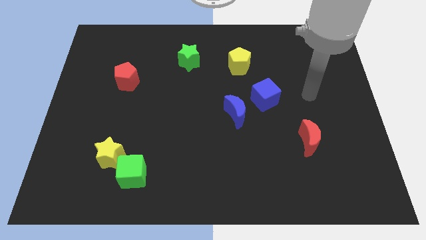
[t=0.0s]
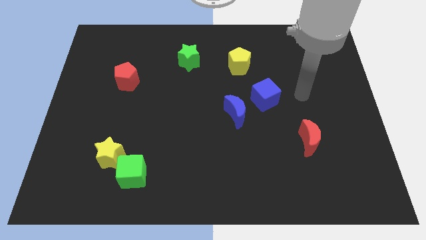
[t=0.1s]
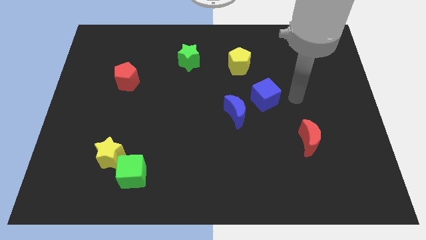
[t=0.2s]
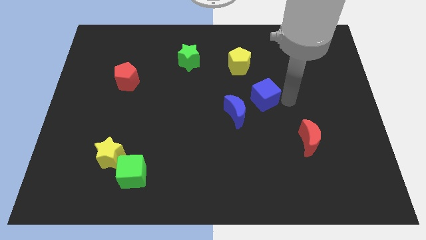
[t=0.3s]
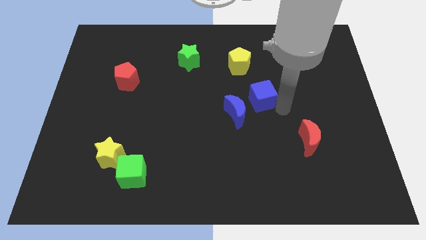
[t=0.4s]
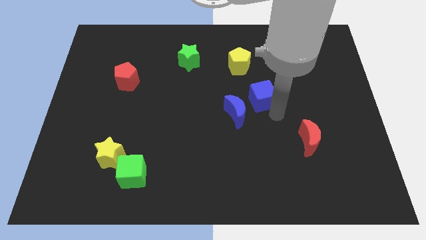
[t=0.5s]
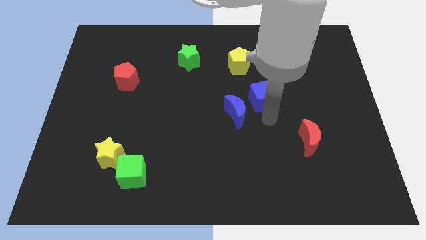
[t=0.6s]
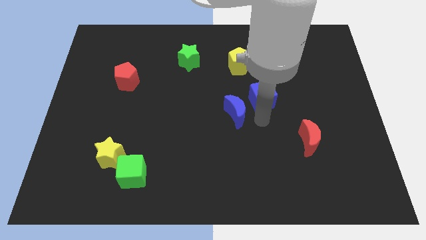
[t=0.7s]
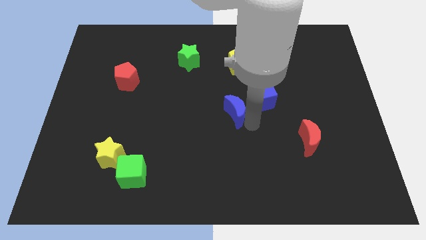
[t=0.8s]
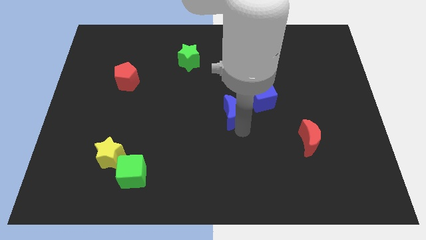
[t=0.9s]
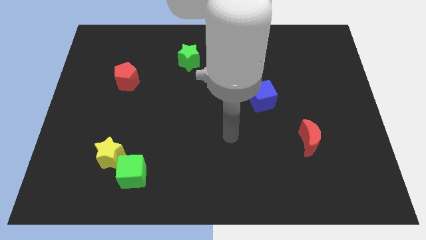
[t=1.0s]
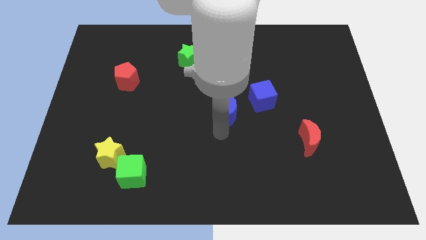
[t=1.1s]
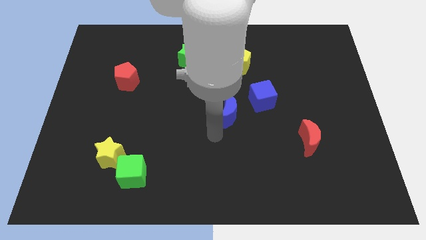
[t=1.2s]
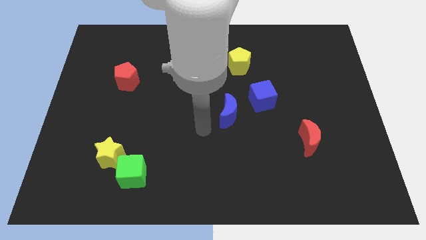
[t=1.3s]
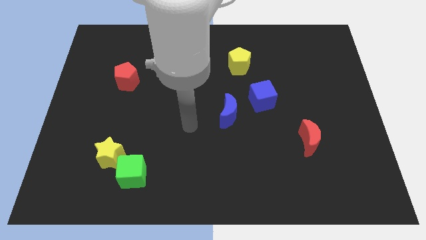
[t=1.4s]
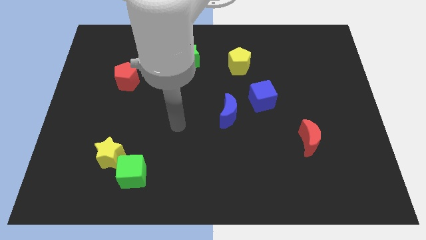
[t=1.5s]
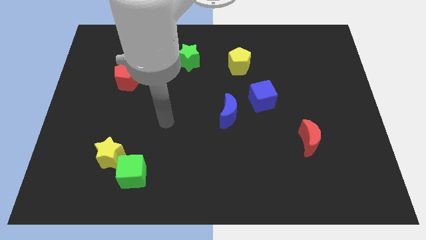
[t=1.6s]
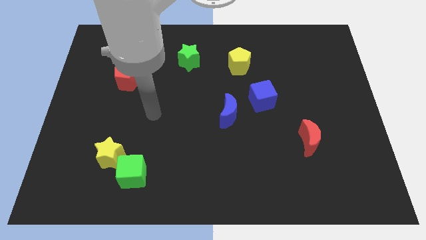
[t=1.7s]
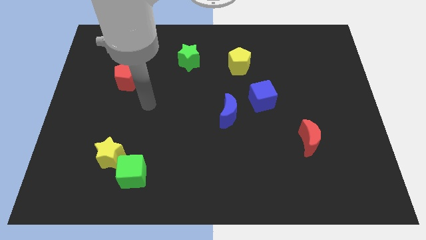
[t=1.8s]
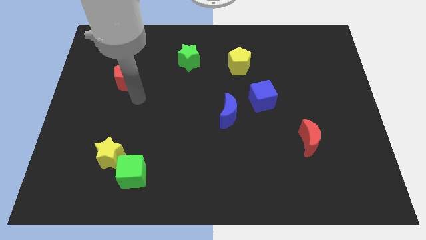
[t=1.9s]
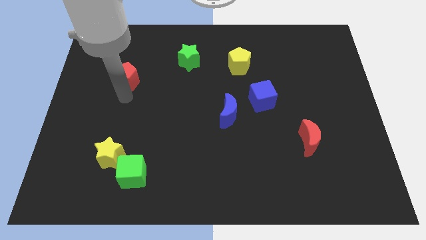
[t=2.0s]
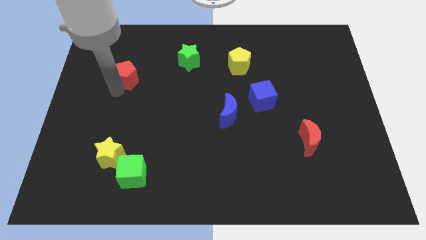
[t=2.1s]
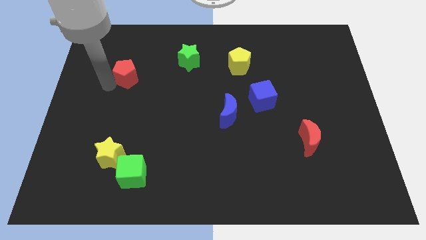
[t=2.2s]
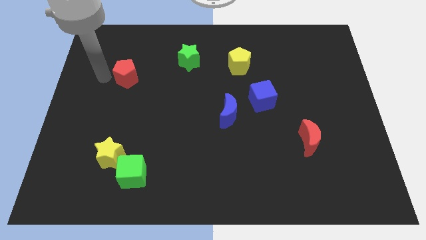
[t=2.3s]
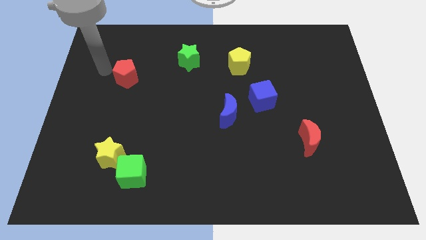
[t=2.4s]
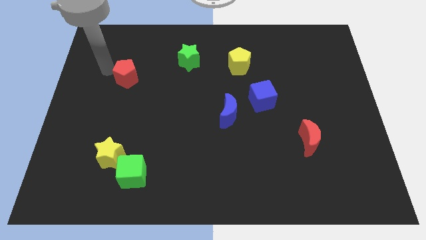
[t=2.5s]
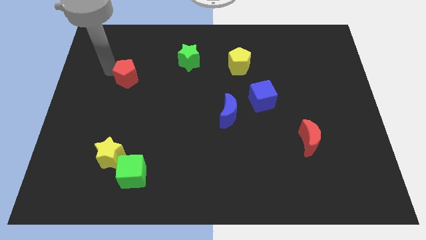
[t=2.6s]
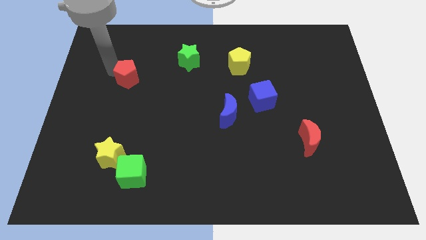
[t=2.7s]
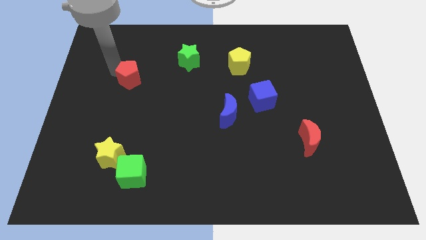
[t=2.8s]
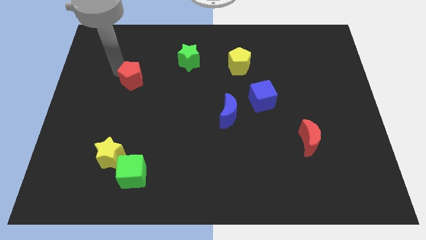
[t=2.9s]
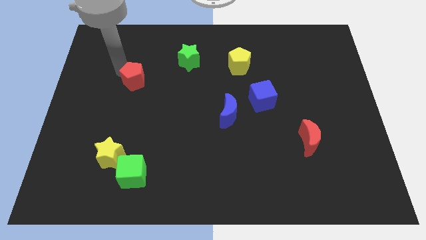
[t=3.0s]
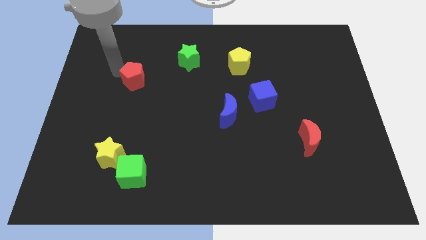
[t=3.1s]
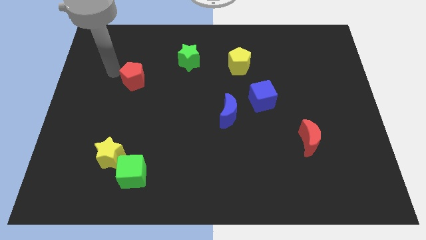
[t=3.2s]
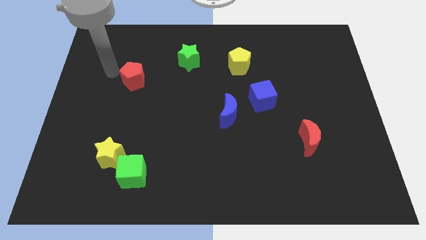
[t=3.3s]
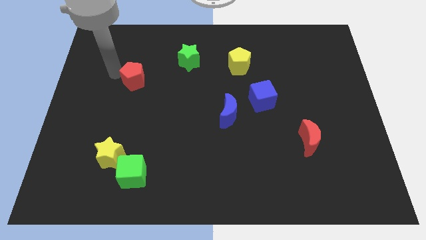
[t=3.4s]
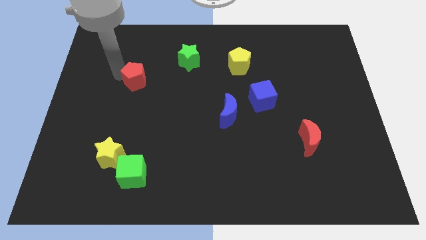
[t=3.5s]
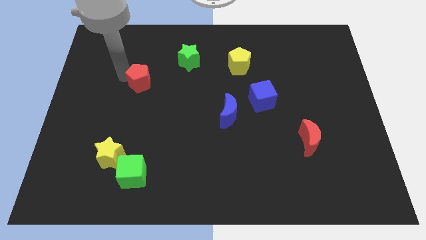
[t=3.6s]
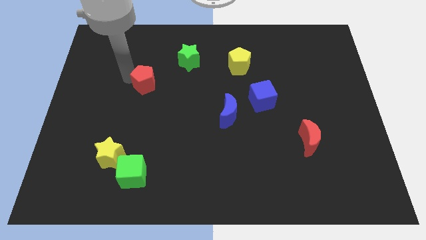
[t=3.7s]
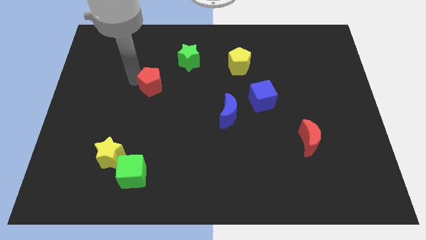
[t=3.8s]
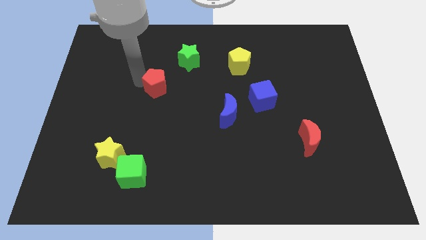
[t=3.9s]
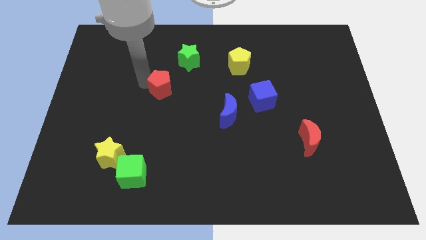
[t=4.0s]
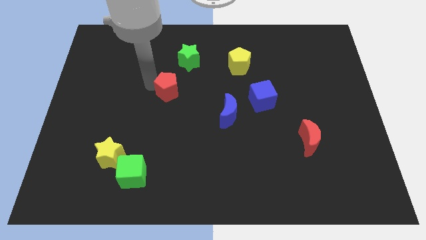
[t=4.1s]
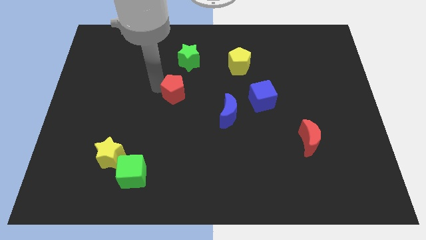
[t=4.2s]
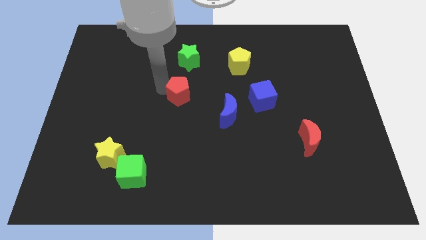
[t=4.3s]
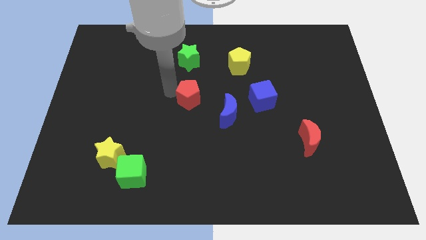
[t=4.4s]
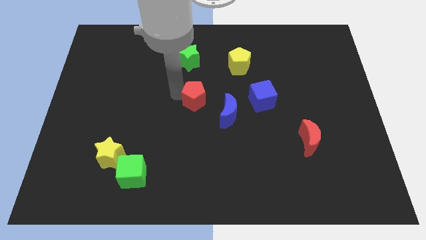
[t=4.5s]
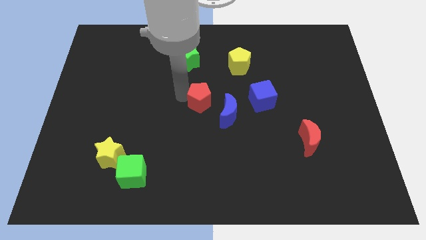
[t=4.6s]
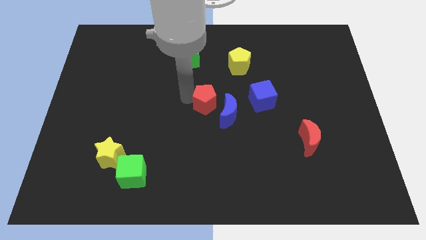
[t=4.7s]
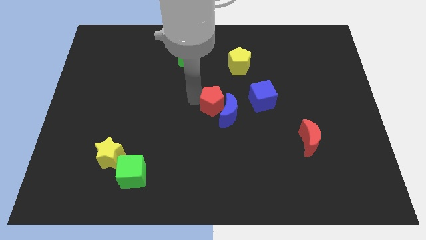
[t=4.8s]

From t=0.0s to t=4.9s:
put the red pentagon next to the blue moon

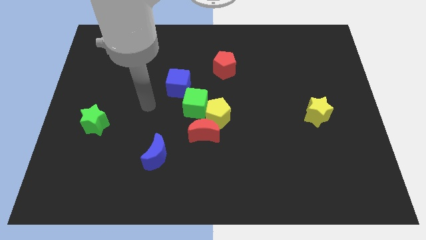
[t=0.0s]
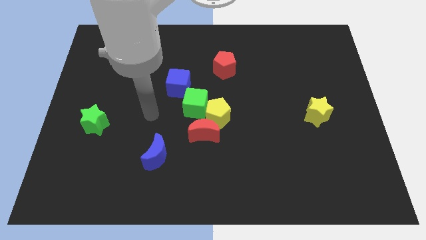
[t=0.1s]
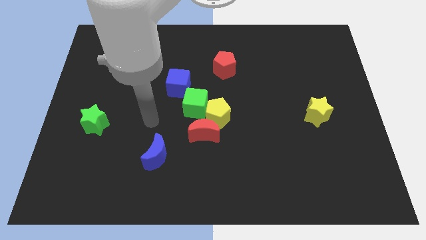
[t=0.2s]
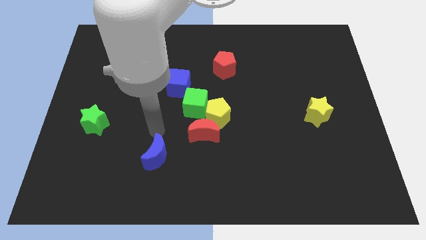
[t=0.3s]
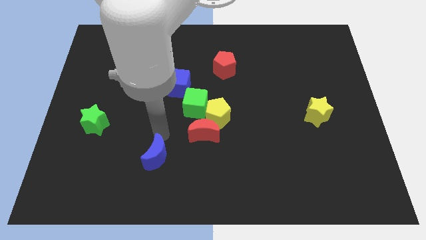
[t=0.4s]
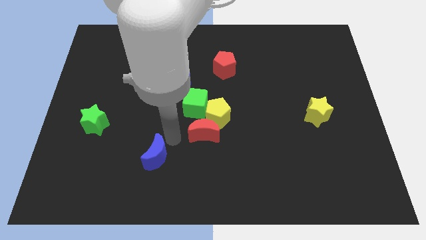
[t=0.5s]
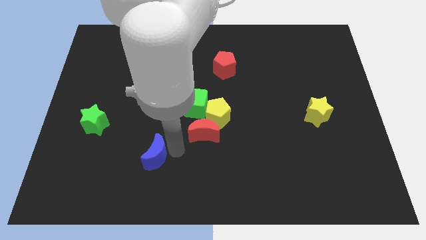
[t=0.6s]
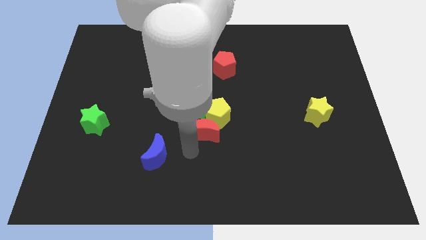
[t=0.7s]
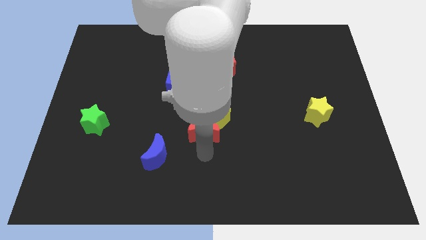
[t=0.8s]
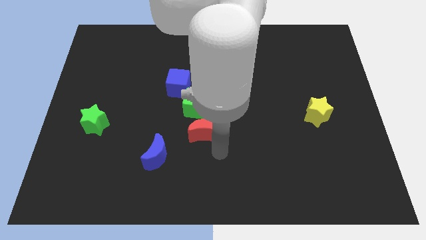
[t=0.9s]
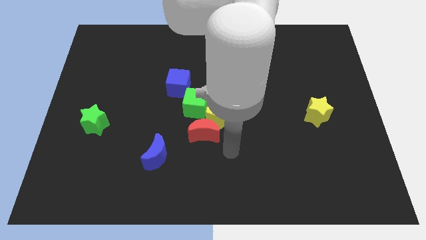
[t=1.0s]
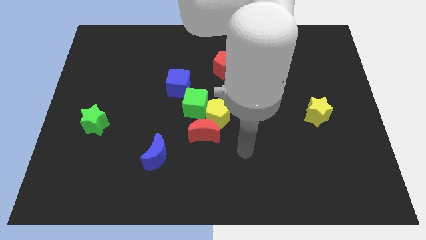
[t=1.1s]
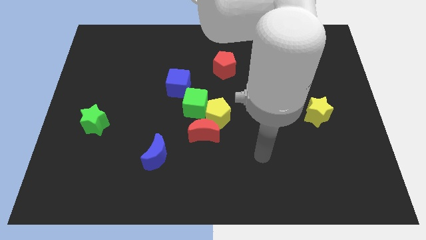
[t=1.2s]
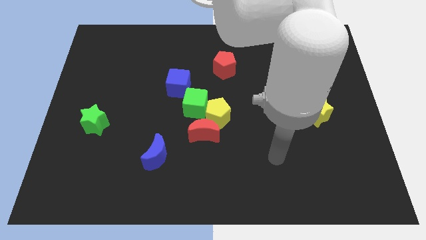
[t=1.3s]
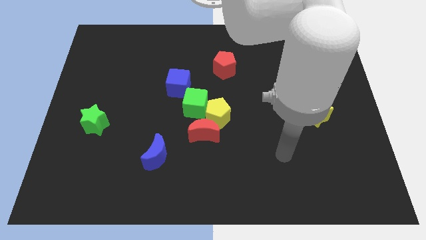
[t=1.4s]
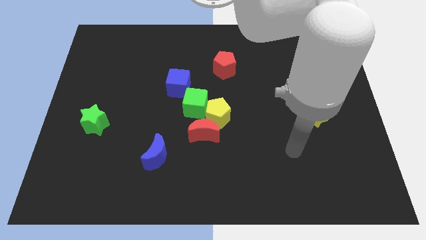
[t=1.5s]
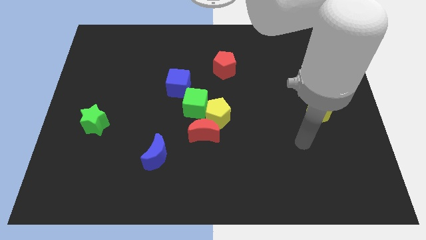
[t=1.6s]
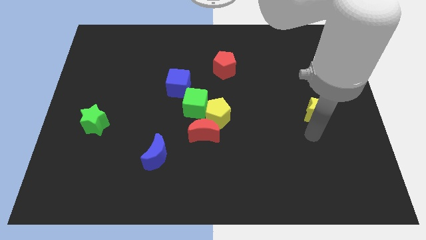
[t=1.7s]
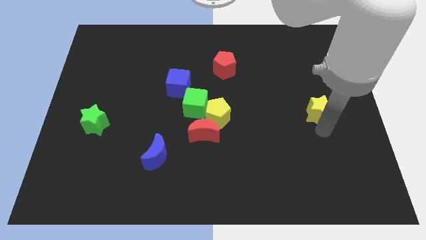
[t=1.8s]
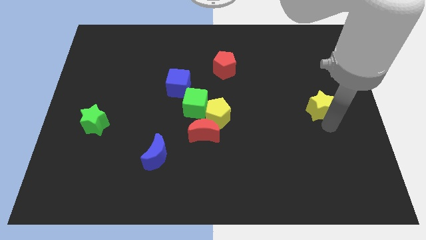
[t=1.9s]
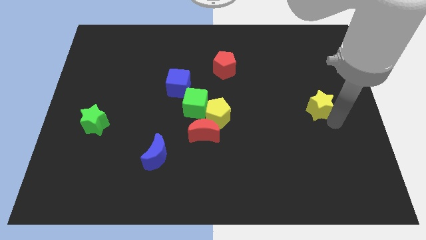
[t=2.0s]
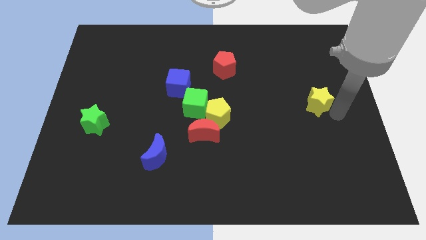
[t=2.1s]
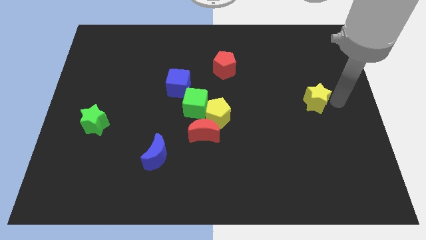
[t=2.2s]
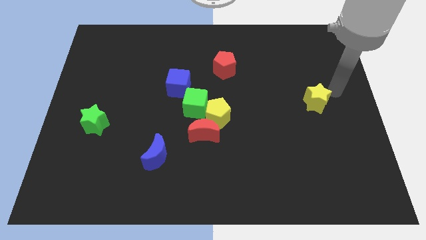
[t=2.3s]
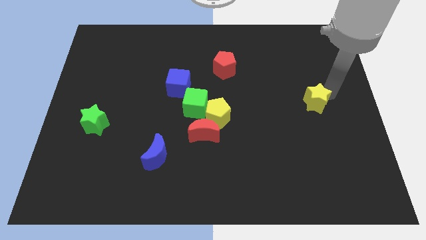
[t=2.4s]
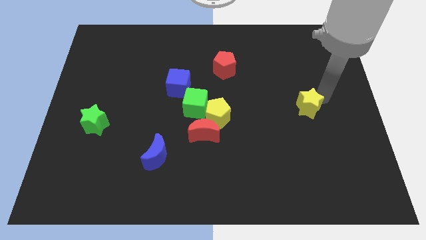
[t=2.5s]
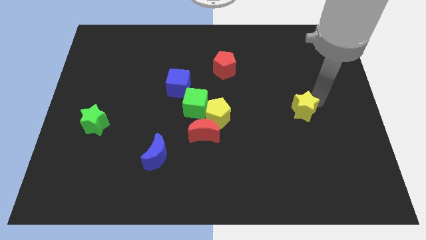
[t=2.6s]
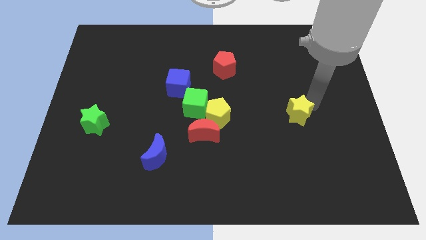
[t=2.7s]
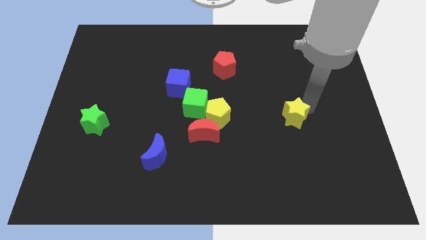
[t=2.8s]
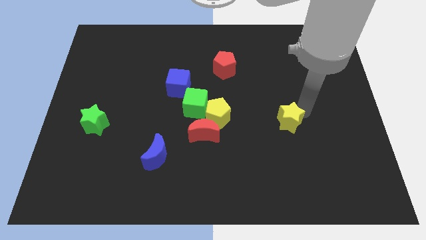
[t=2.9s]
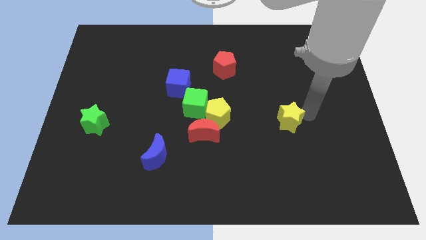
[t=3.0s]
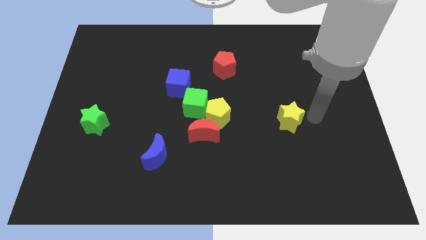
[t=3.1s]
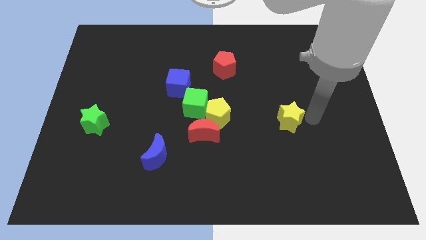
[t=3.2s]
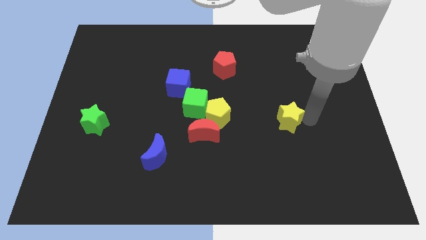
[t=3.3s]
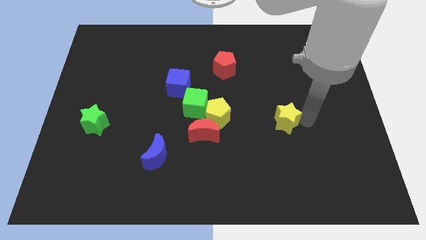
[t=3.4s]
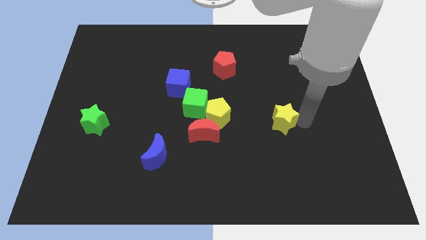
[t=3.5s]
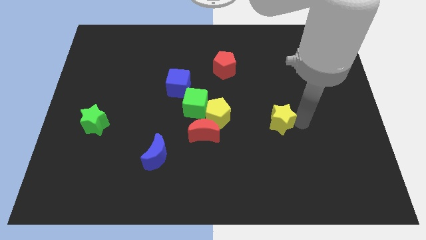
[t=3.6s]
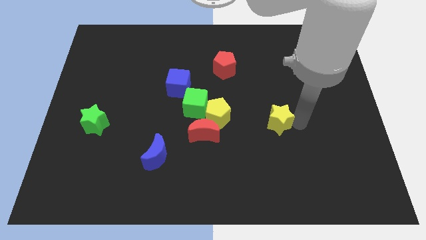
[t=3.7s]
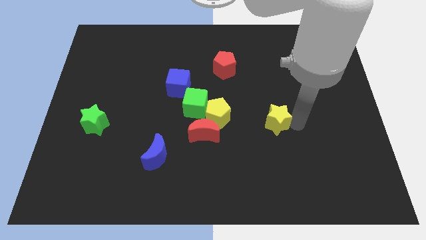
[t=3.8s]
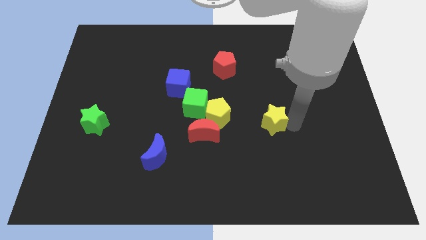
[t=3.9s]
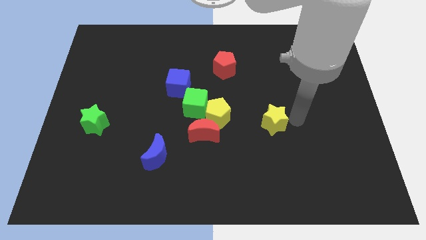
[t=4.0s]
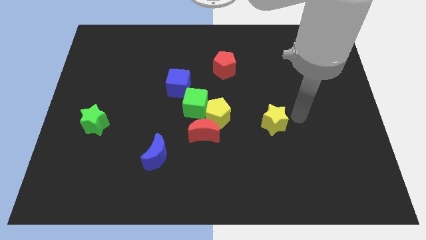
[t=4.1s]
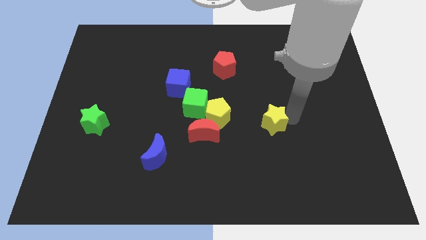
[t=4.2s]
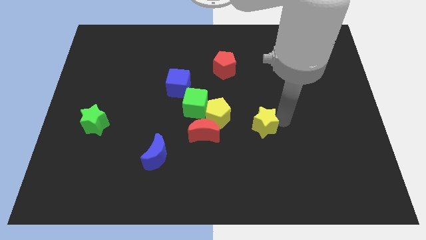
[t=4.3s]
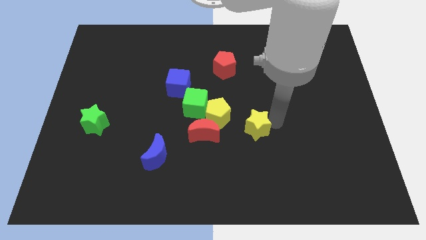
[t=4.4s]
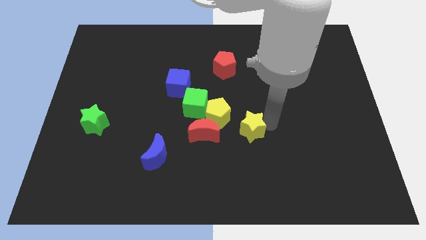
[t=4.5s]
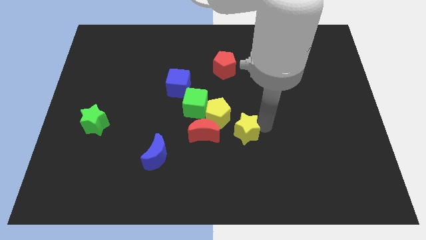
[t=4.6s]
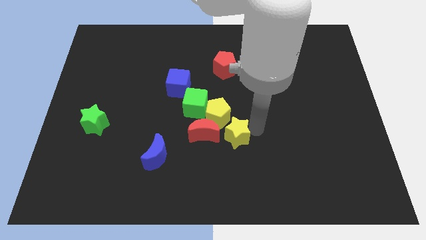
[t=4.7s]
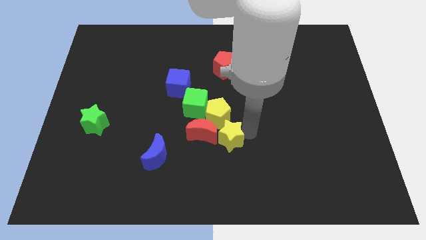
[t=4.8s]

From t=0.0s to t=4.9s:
push the yellow star to the red moon
